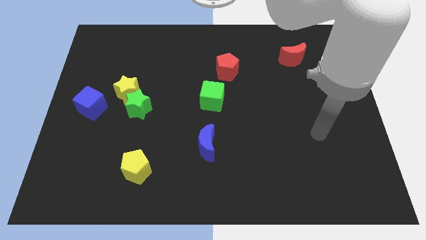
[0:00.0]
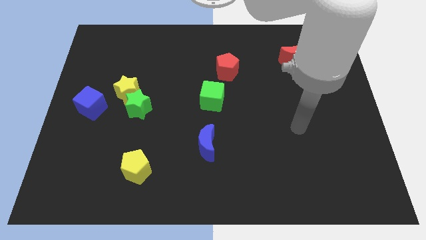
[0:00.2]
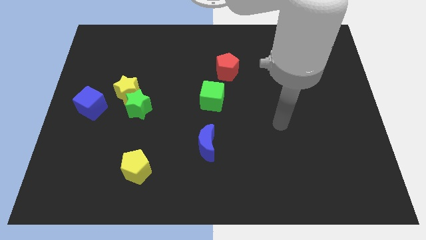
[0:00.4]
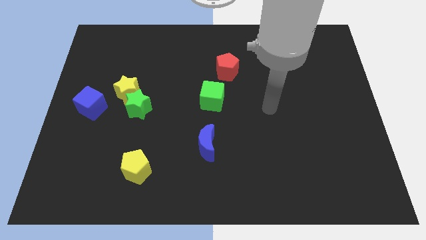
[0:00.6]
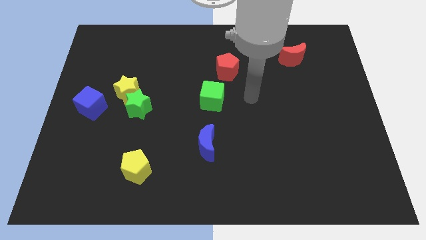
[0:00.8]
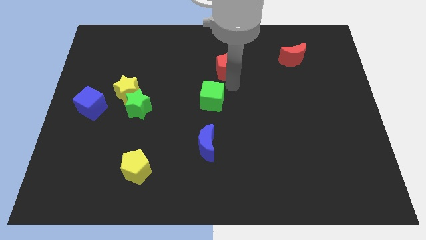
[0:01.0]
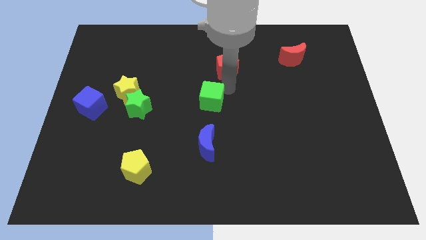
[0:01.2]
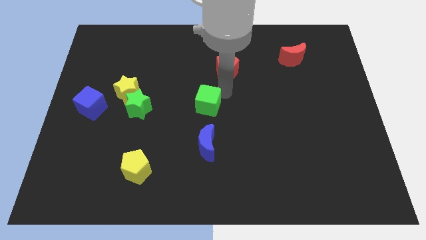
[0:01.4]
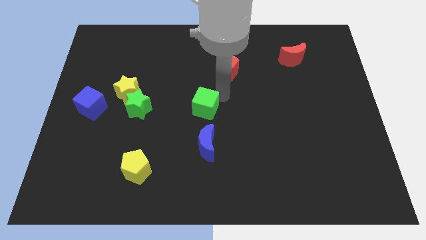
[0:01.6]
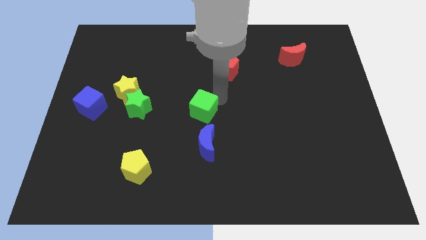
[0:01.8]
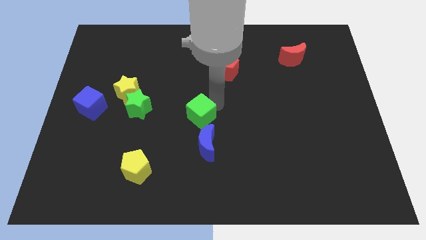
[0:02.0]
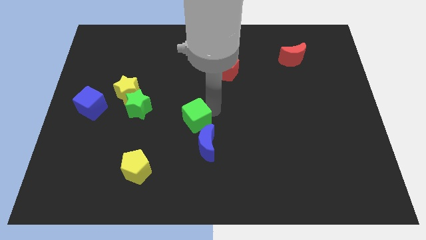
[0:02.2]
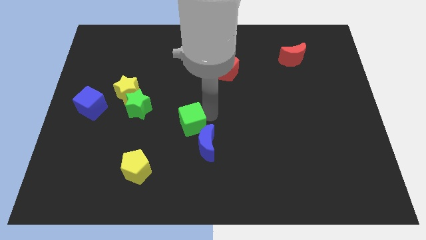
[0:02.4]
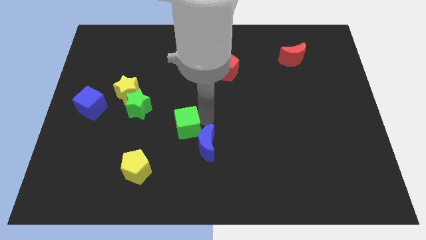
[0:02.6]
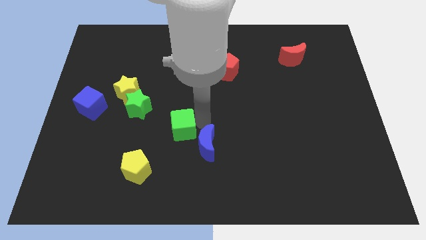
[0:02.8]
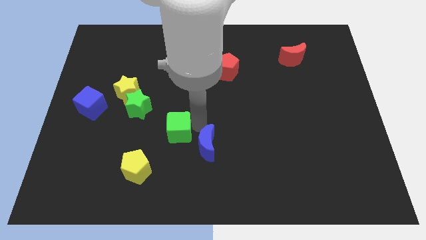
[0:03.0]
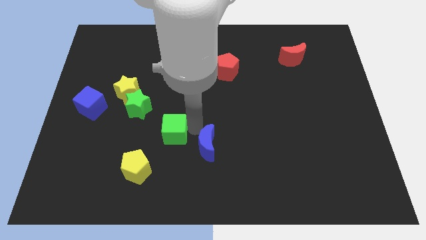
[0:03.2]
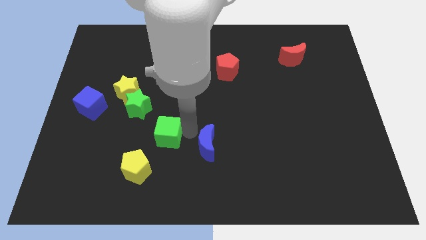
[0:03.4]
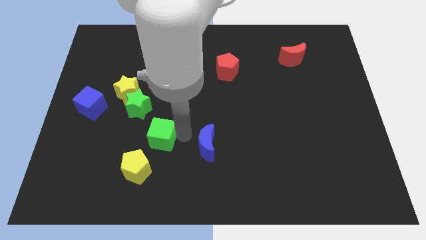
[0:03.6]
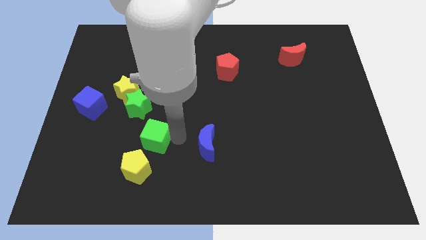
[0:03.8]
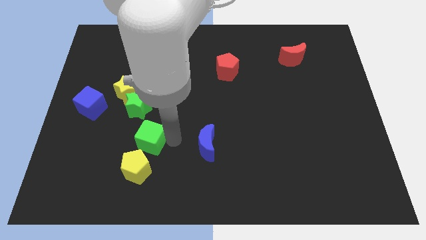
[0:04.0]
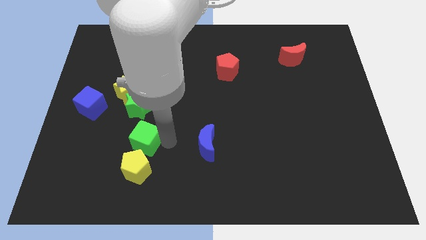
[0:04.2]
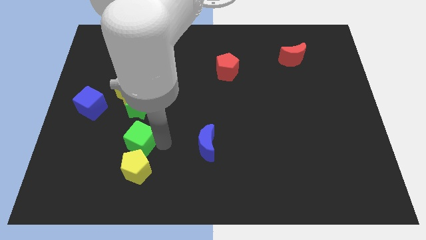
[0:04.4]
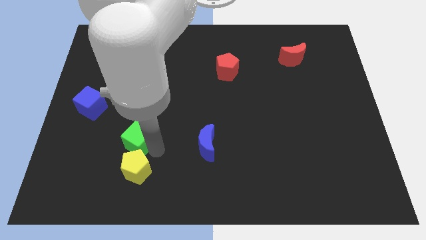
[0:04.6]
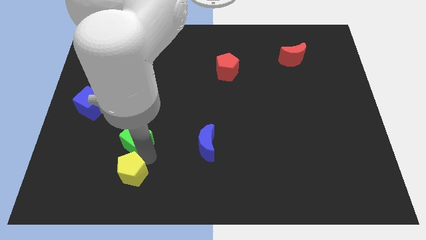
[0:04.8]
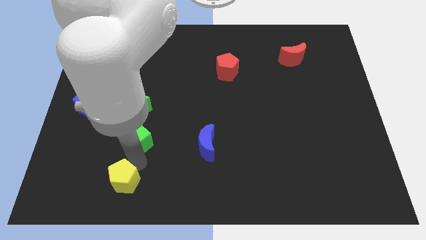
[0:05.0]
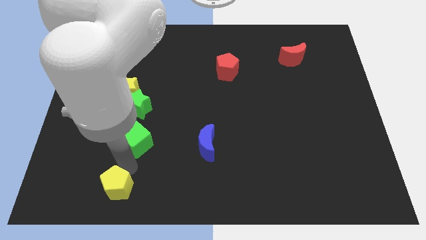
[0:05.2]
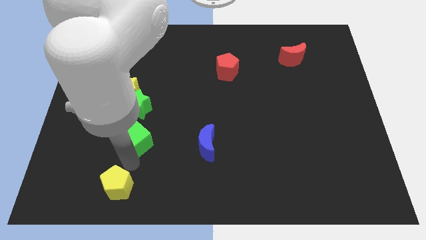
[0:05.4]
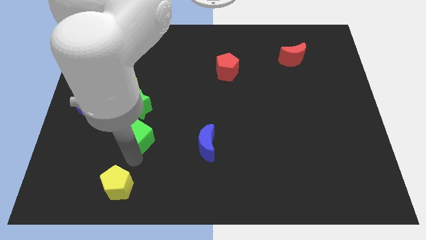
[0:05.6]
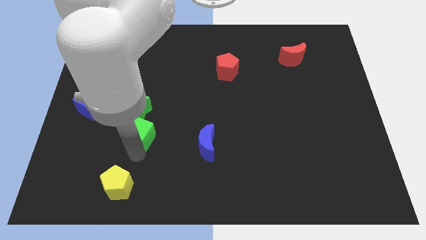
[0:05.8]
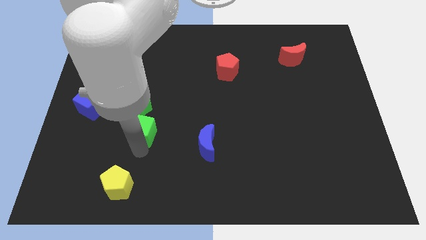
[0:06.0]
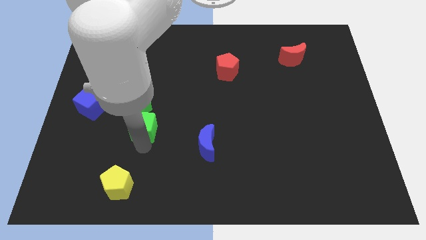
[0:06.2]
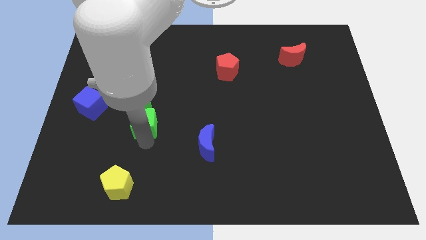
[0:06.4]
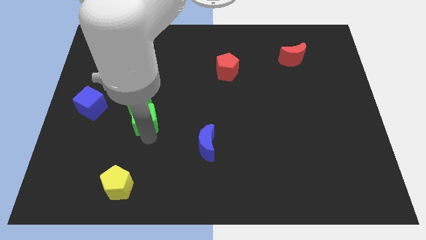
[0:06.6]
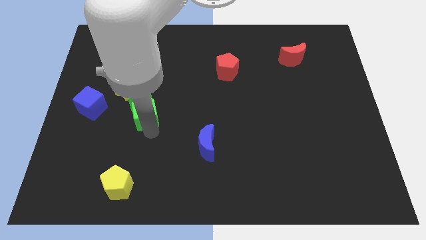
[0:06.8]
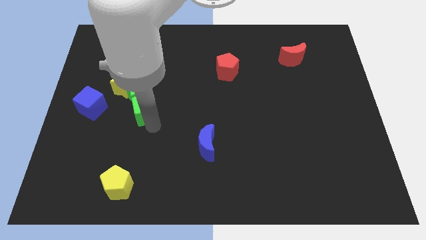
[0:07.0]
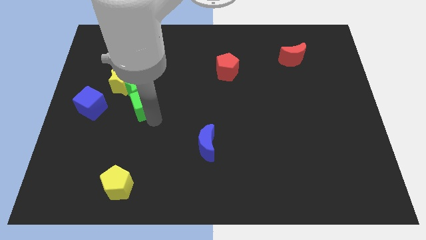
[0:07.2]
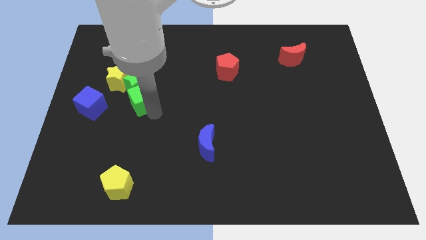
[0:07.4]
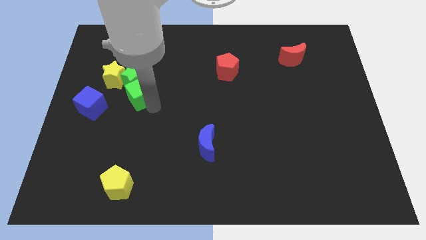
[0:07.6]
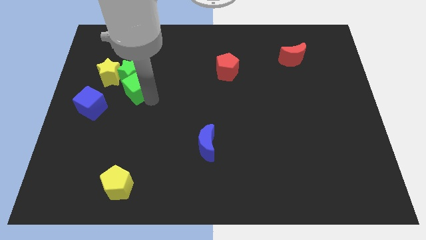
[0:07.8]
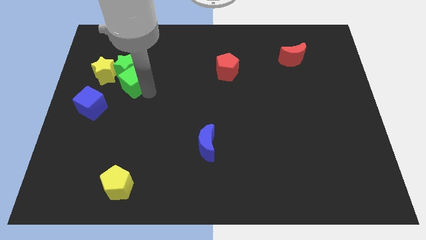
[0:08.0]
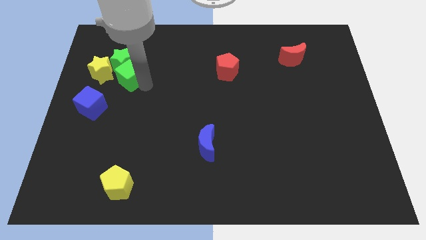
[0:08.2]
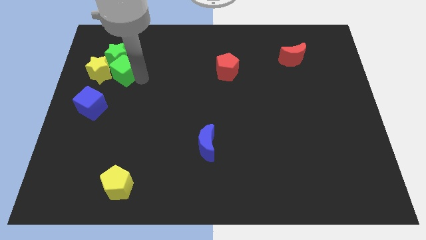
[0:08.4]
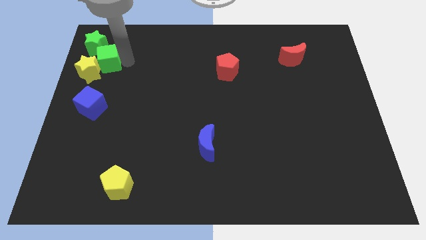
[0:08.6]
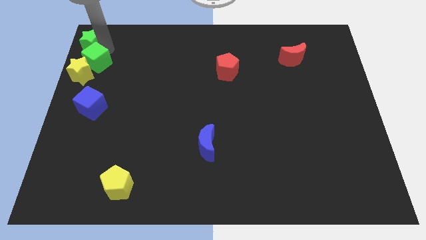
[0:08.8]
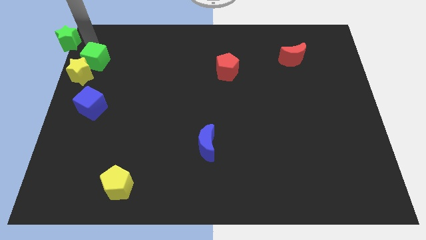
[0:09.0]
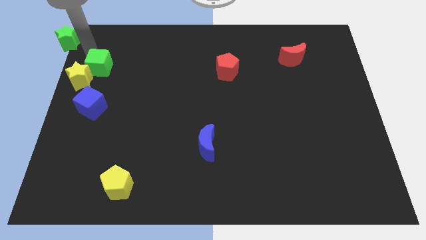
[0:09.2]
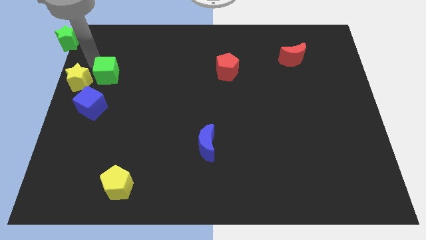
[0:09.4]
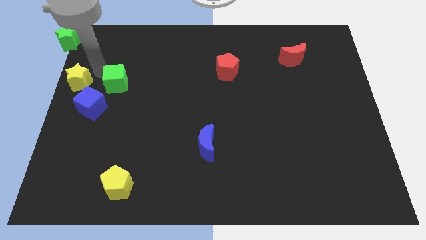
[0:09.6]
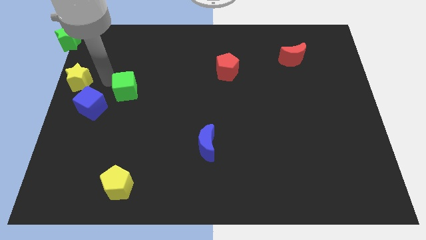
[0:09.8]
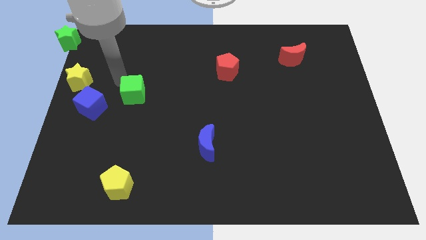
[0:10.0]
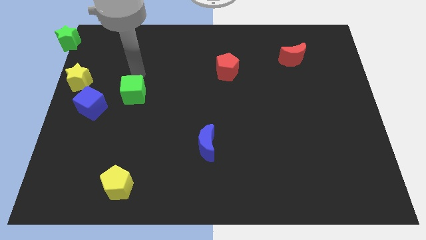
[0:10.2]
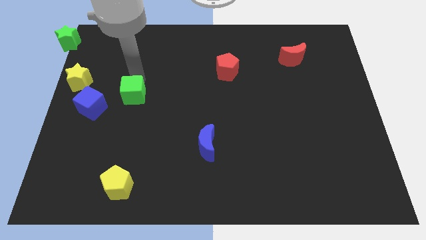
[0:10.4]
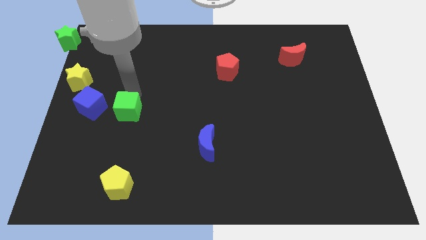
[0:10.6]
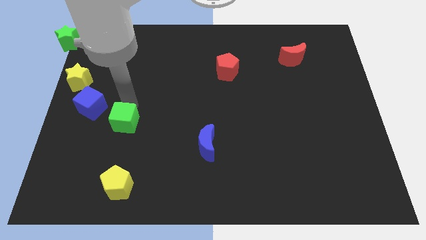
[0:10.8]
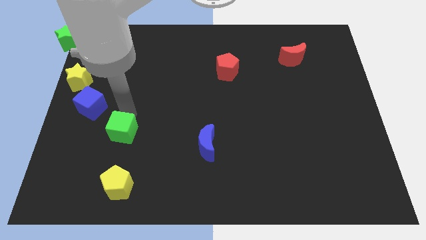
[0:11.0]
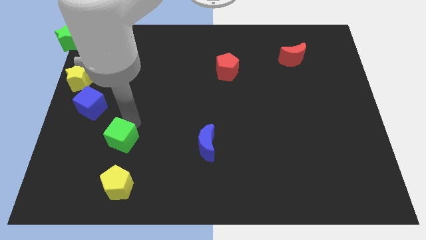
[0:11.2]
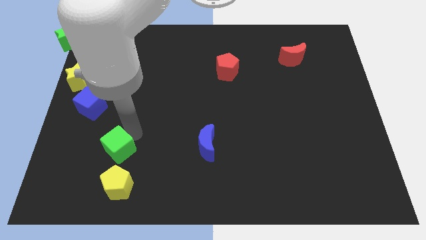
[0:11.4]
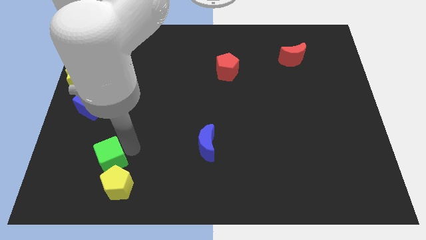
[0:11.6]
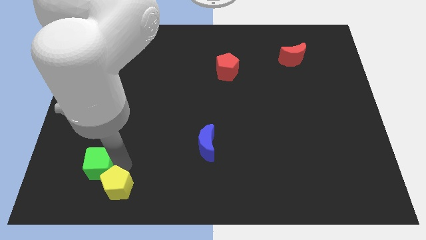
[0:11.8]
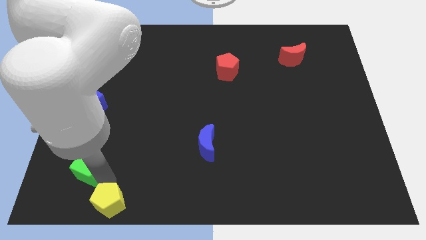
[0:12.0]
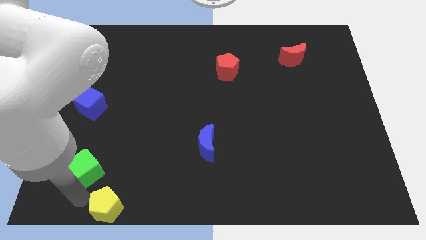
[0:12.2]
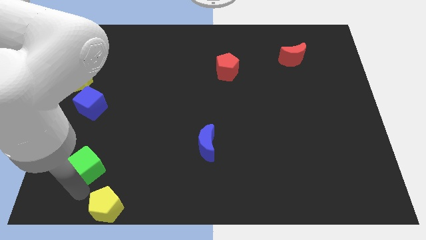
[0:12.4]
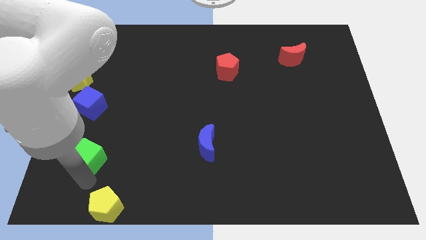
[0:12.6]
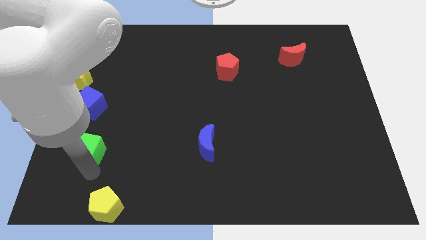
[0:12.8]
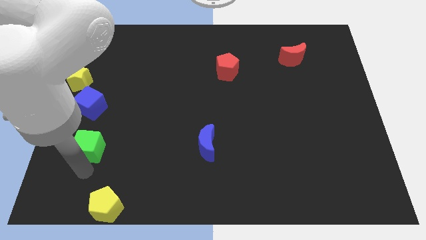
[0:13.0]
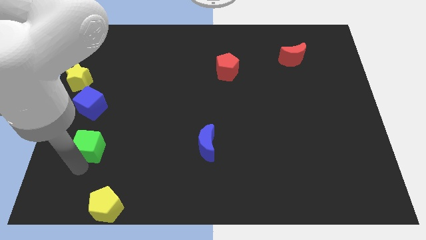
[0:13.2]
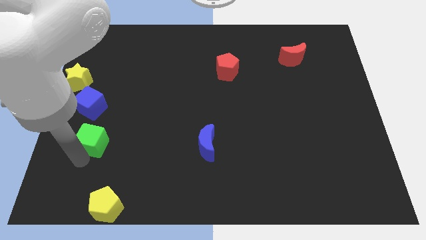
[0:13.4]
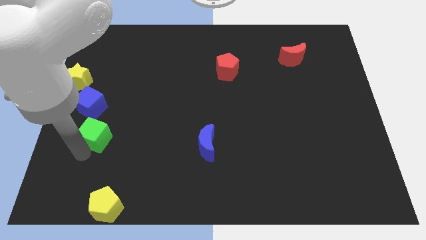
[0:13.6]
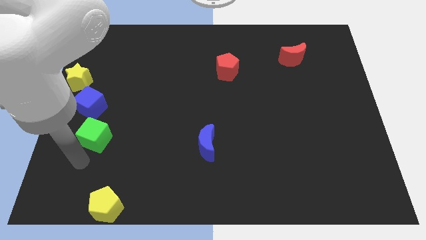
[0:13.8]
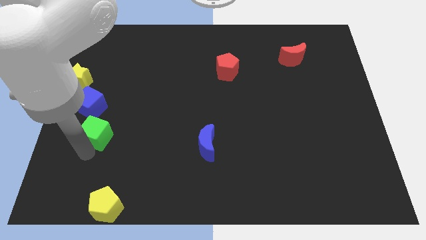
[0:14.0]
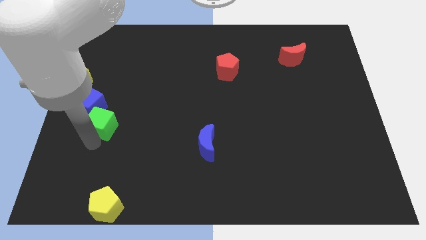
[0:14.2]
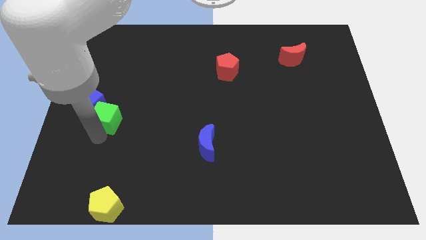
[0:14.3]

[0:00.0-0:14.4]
slide the green cube next to the blue cube
